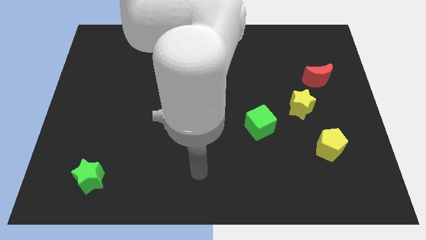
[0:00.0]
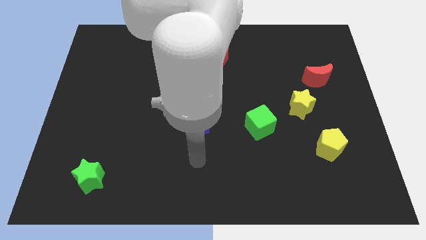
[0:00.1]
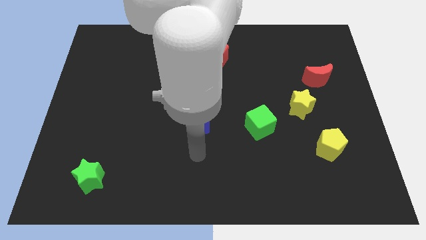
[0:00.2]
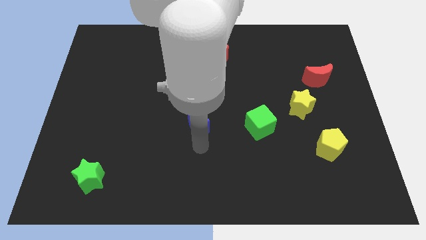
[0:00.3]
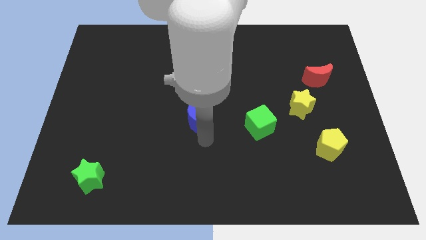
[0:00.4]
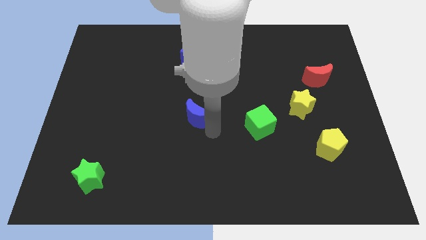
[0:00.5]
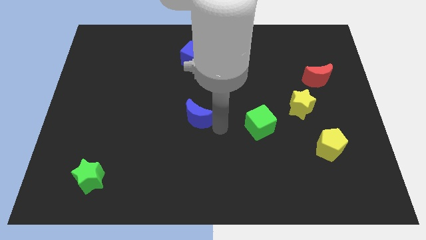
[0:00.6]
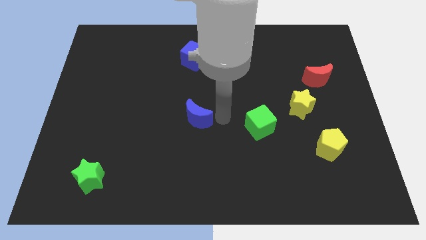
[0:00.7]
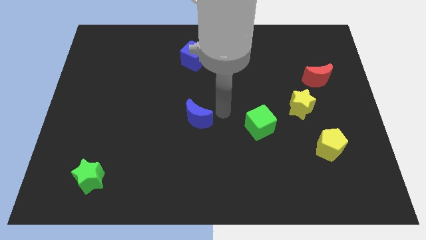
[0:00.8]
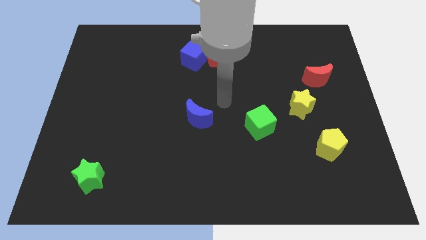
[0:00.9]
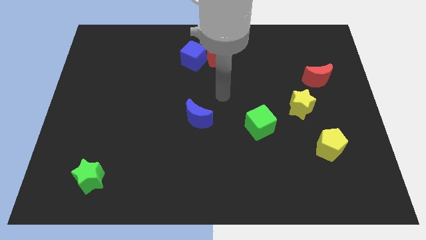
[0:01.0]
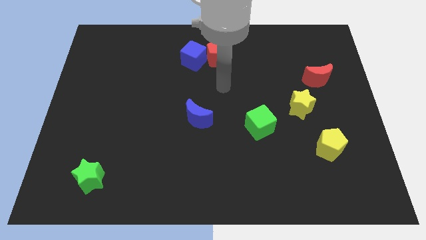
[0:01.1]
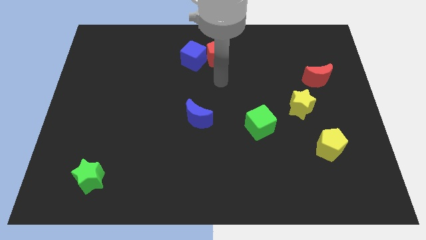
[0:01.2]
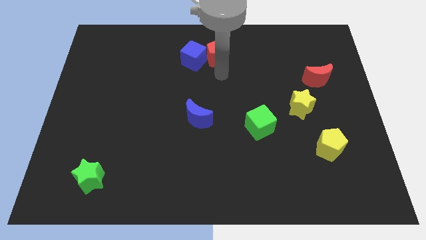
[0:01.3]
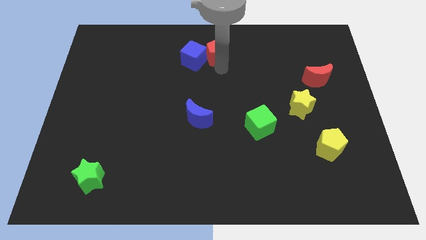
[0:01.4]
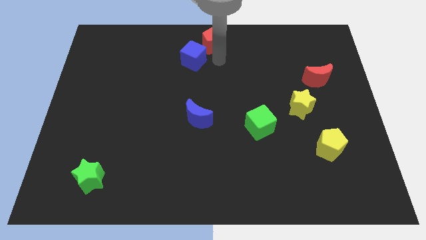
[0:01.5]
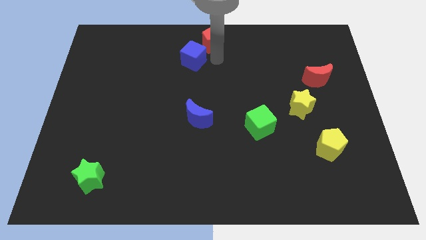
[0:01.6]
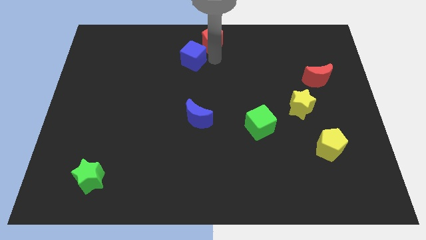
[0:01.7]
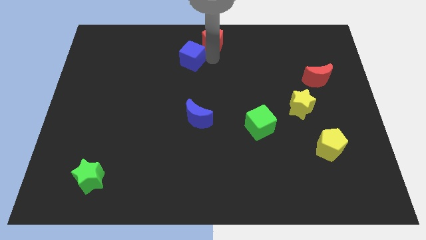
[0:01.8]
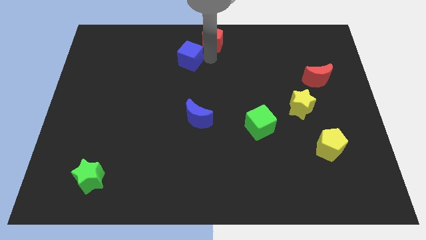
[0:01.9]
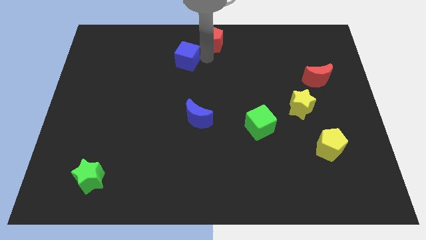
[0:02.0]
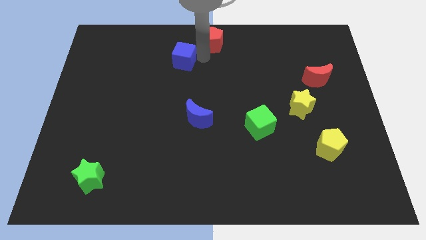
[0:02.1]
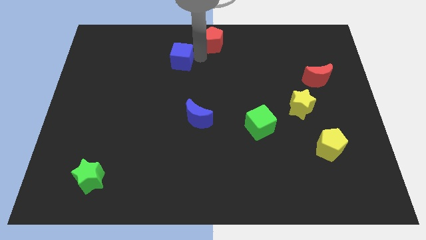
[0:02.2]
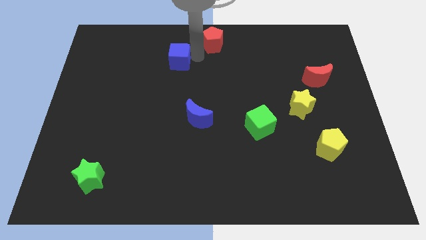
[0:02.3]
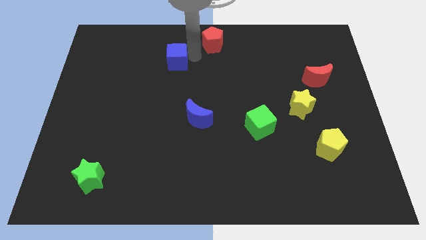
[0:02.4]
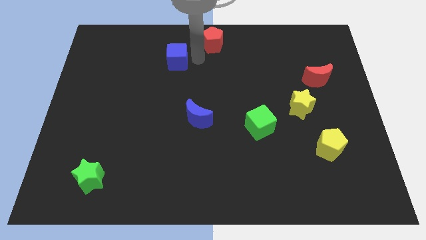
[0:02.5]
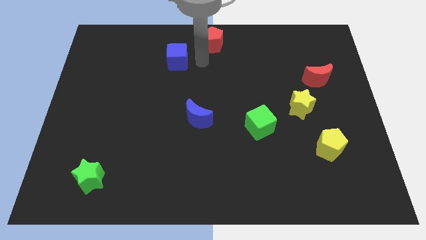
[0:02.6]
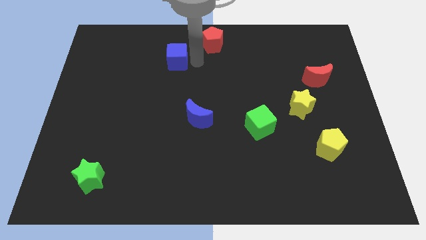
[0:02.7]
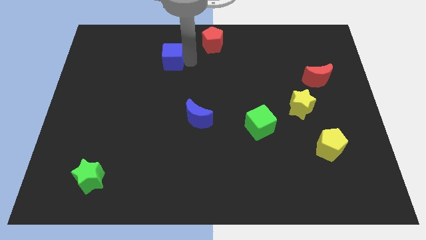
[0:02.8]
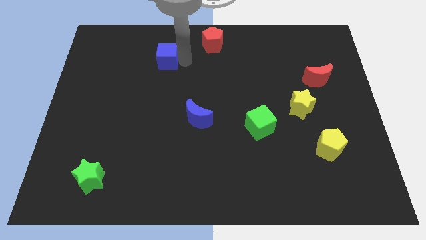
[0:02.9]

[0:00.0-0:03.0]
slightly push the blue cube to the left

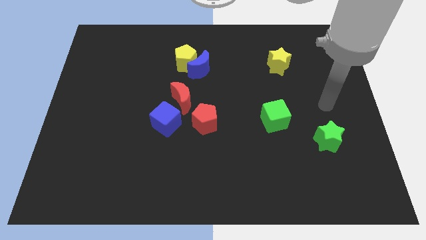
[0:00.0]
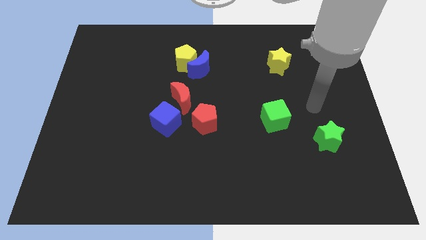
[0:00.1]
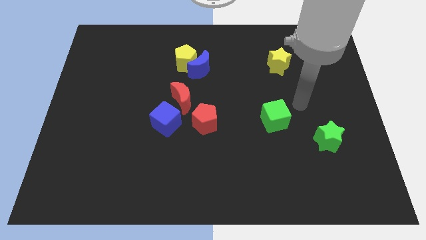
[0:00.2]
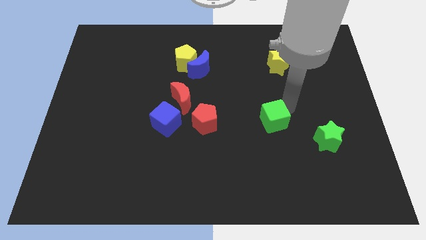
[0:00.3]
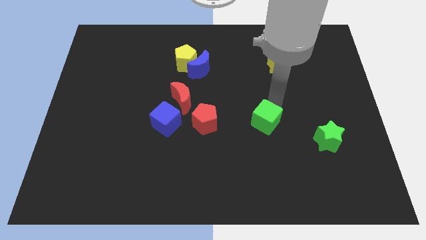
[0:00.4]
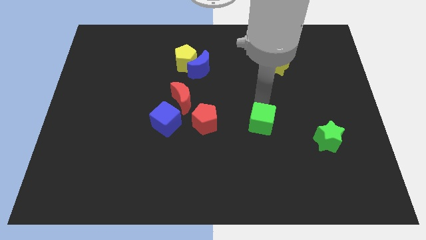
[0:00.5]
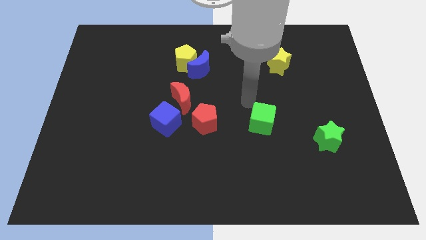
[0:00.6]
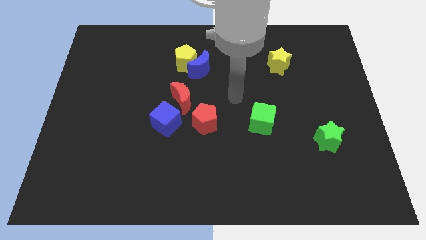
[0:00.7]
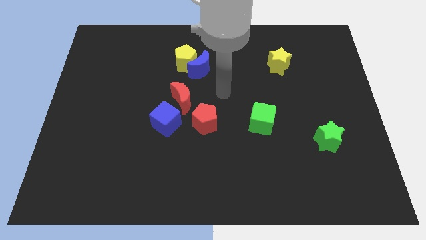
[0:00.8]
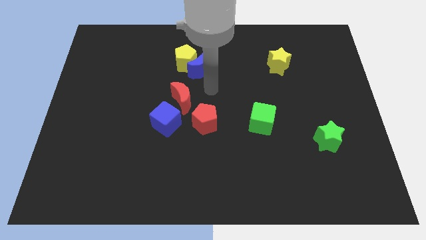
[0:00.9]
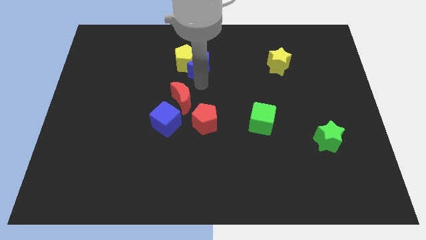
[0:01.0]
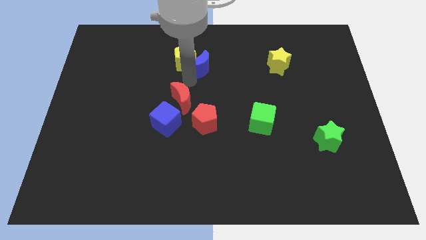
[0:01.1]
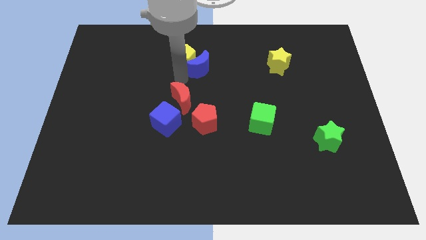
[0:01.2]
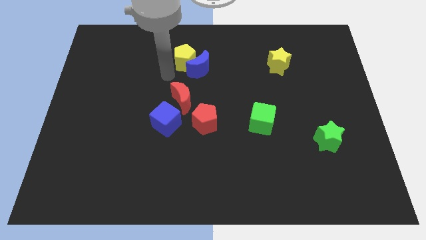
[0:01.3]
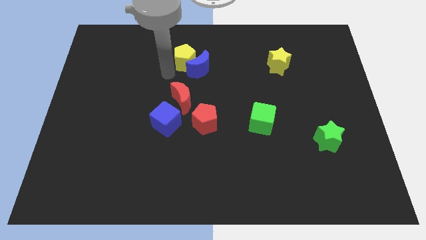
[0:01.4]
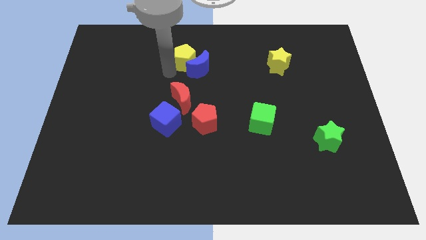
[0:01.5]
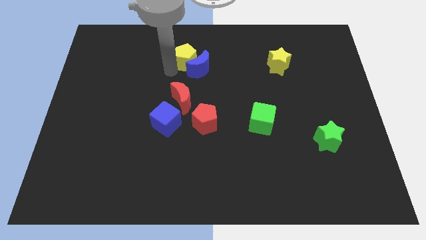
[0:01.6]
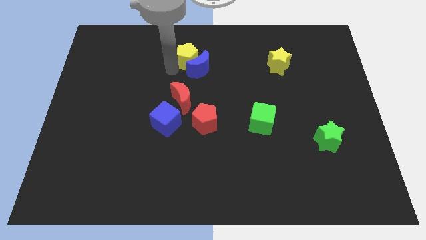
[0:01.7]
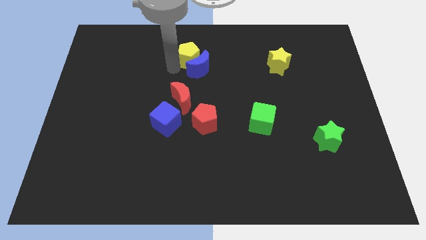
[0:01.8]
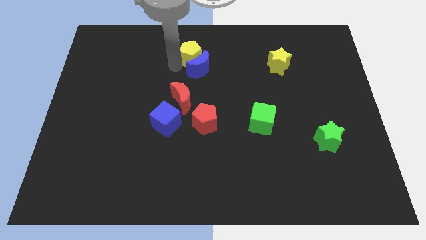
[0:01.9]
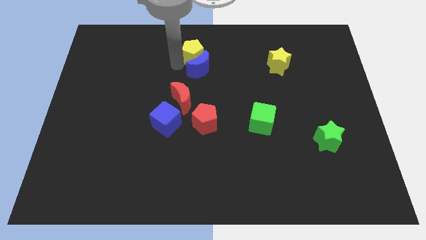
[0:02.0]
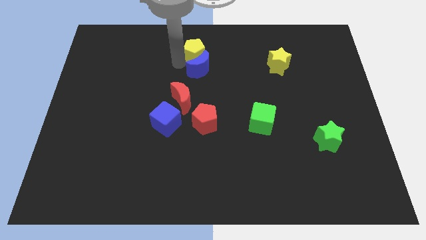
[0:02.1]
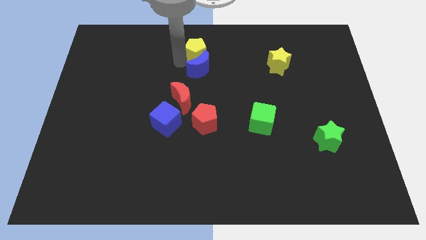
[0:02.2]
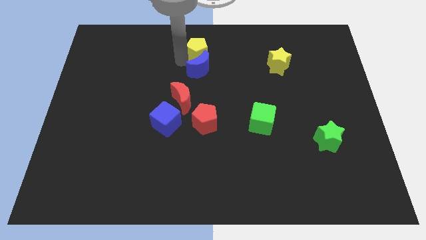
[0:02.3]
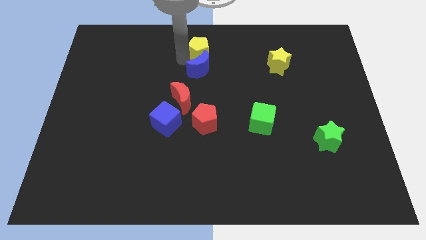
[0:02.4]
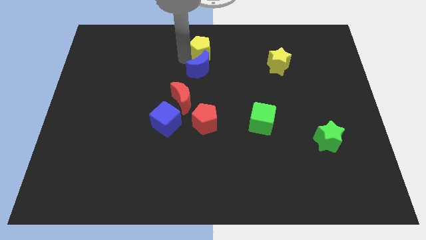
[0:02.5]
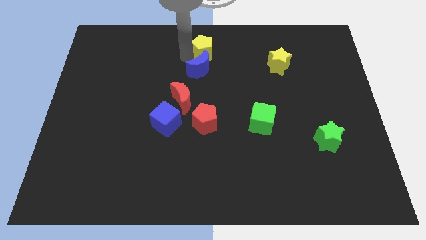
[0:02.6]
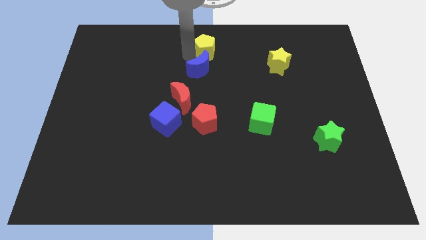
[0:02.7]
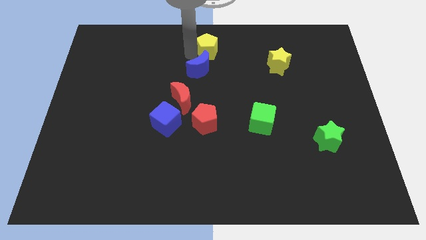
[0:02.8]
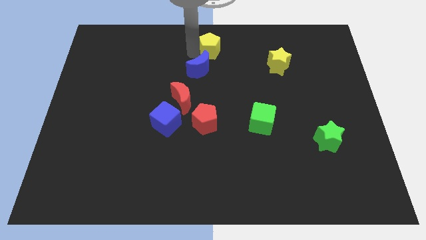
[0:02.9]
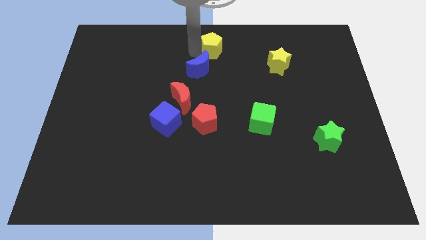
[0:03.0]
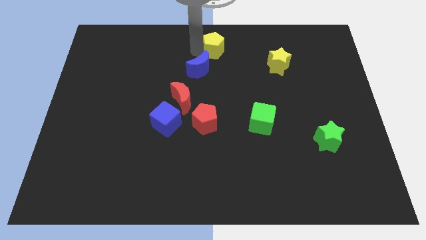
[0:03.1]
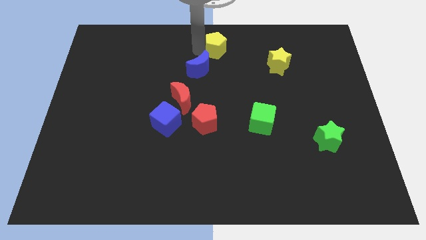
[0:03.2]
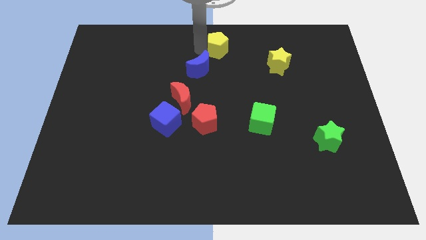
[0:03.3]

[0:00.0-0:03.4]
slightly push the yellow pentagon right

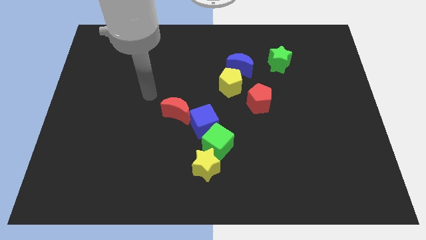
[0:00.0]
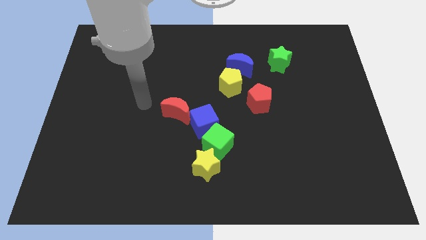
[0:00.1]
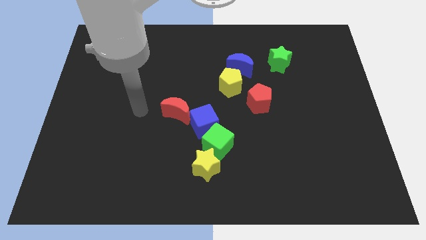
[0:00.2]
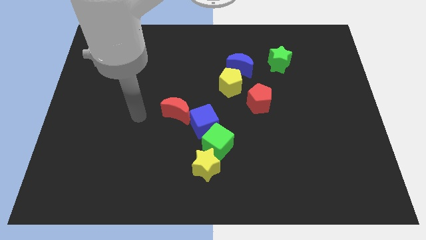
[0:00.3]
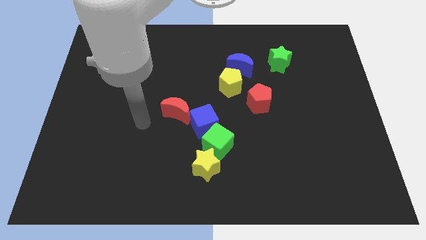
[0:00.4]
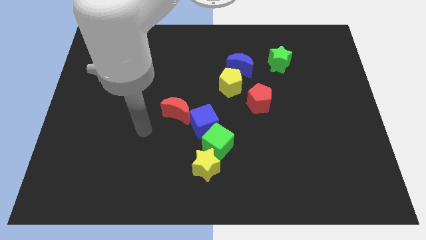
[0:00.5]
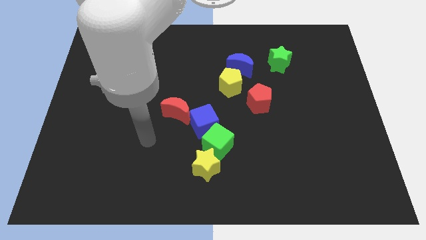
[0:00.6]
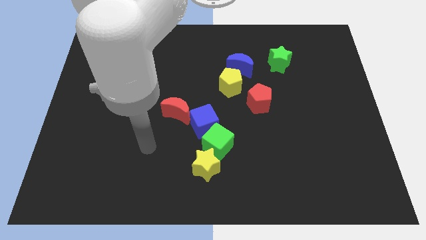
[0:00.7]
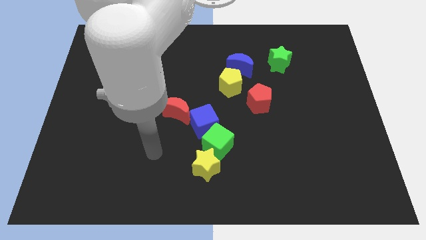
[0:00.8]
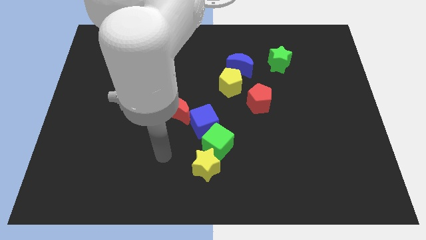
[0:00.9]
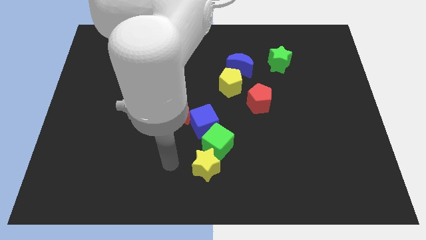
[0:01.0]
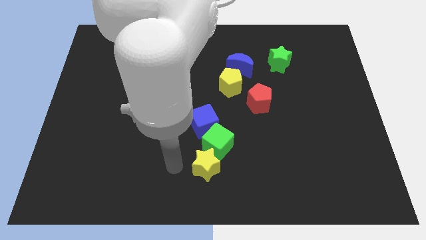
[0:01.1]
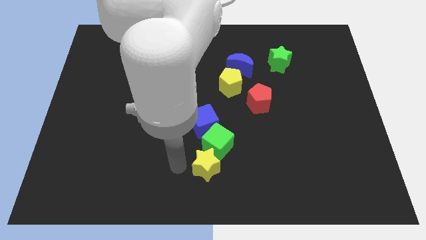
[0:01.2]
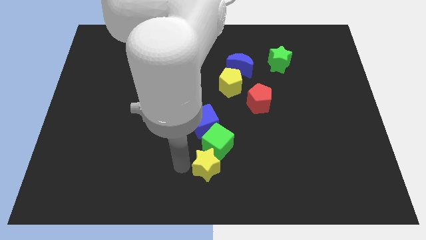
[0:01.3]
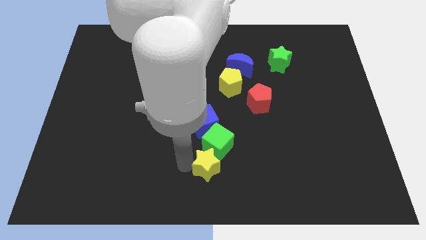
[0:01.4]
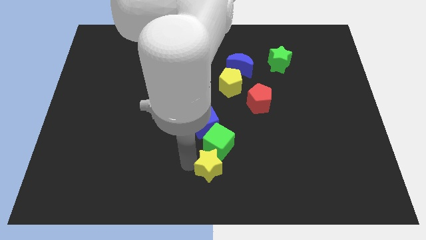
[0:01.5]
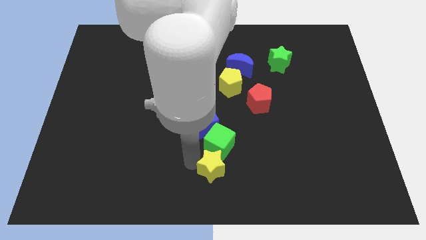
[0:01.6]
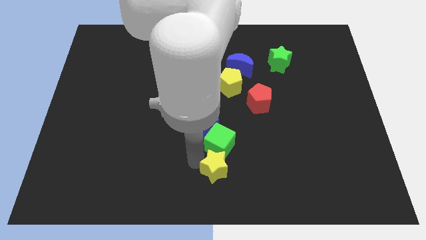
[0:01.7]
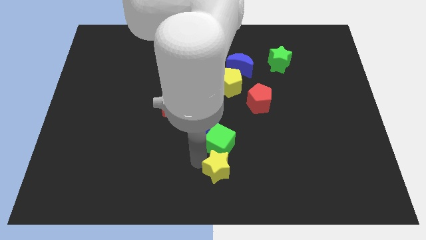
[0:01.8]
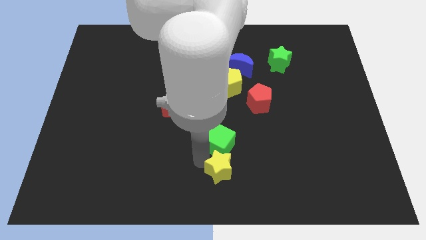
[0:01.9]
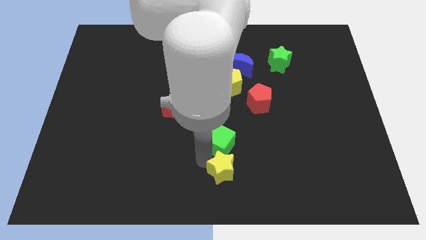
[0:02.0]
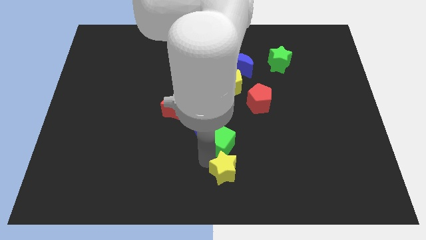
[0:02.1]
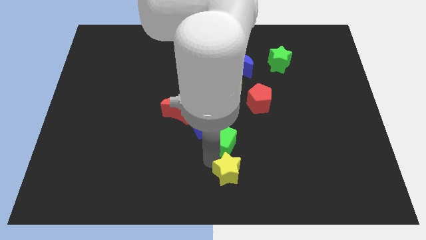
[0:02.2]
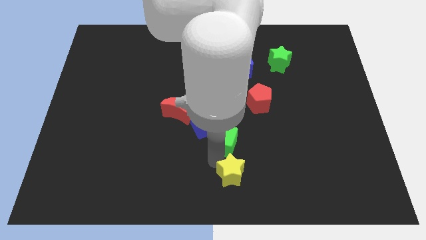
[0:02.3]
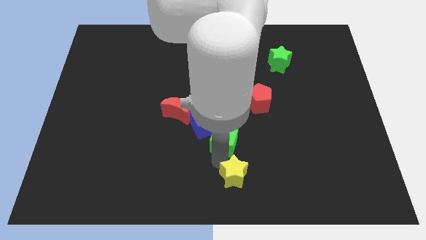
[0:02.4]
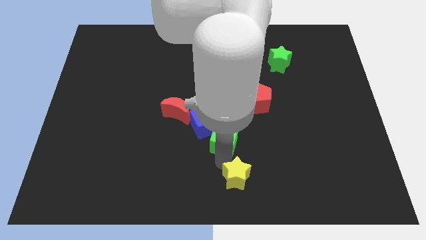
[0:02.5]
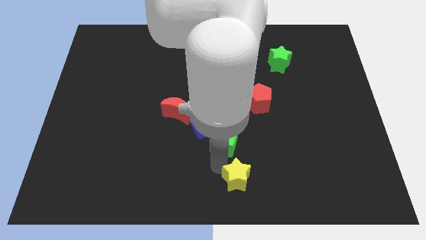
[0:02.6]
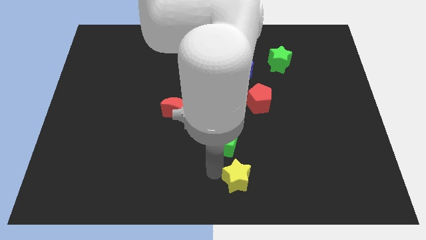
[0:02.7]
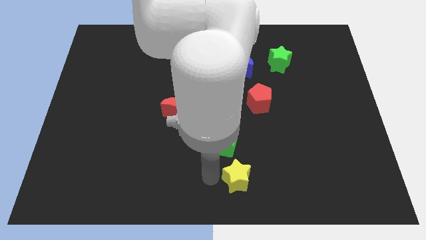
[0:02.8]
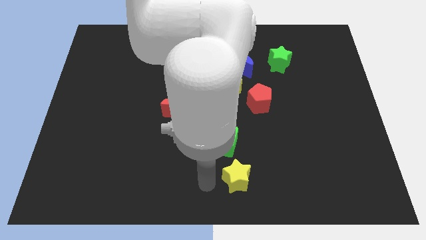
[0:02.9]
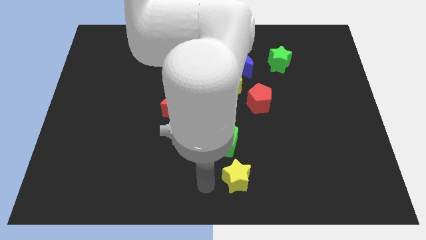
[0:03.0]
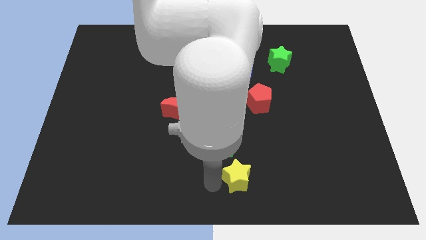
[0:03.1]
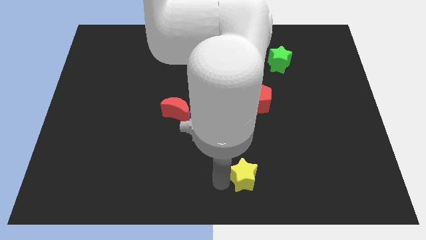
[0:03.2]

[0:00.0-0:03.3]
slightly push the yellow star right
